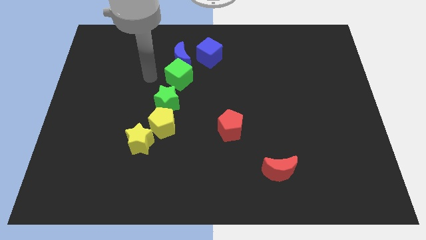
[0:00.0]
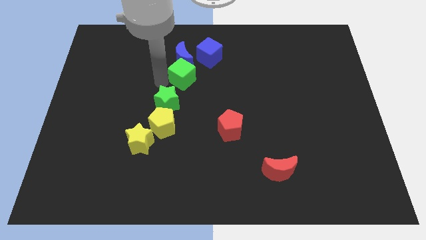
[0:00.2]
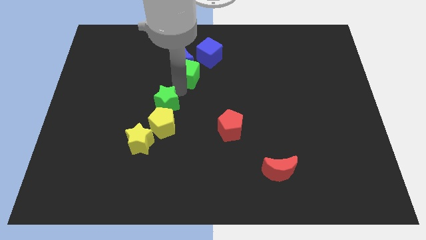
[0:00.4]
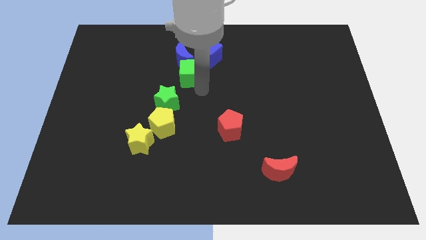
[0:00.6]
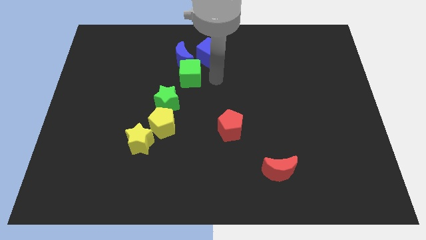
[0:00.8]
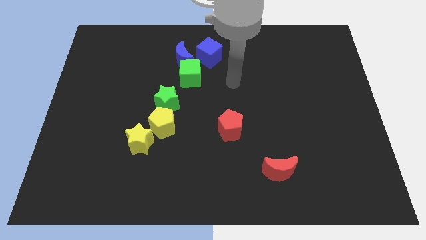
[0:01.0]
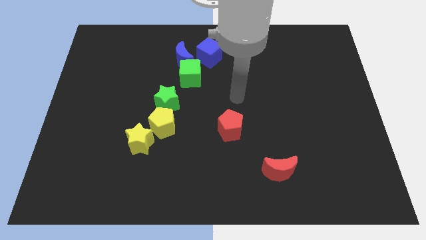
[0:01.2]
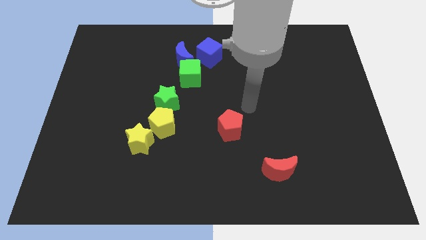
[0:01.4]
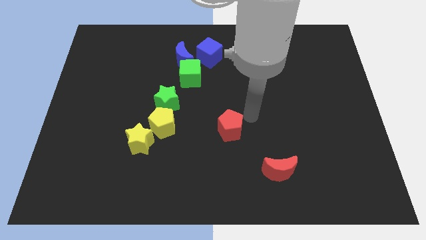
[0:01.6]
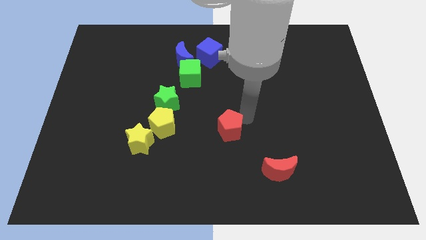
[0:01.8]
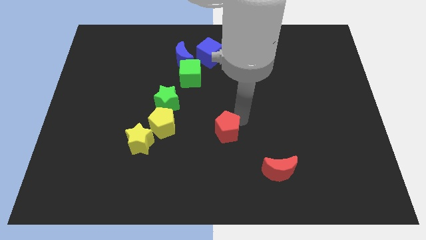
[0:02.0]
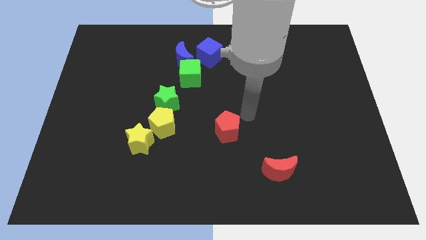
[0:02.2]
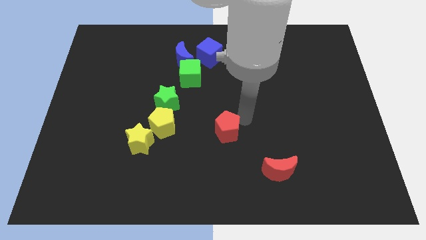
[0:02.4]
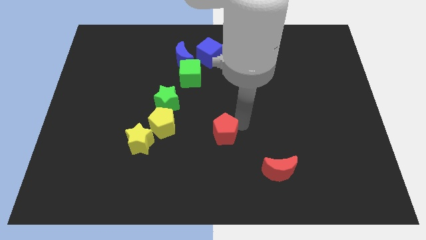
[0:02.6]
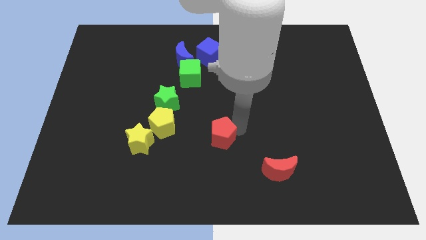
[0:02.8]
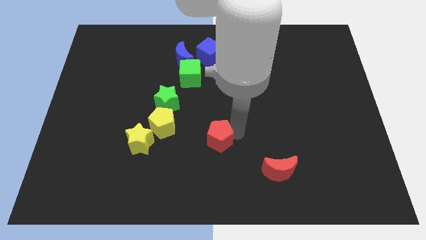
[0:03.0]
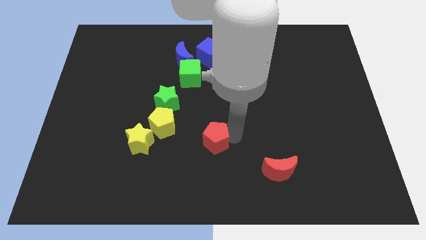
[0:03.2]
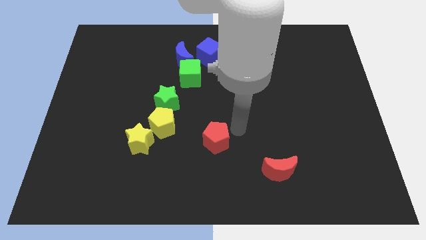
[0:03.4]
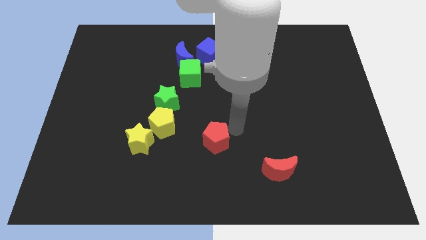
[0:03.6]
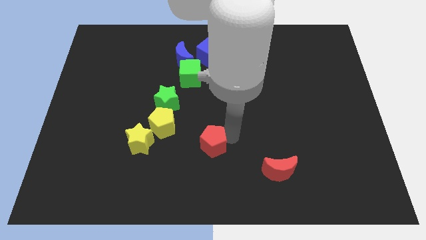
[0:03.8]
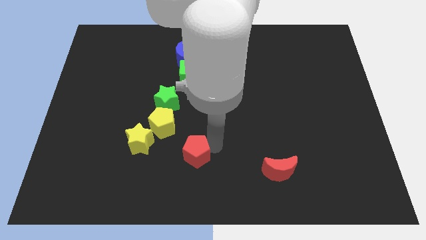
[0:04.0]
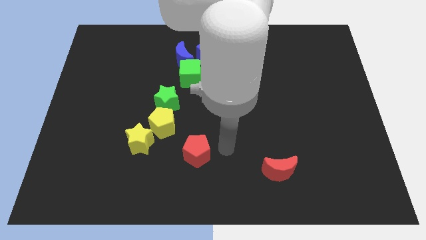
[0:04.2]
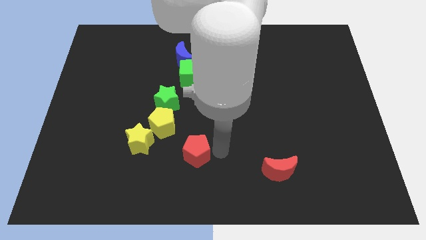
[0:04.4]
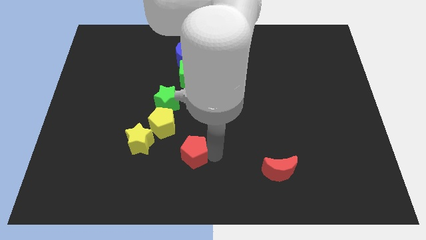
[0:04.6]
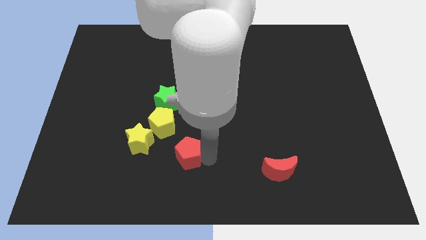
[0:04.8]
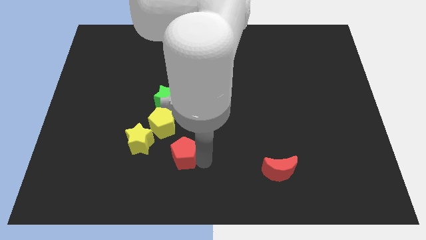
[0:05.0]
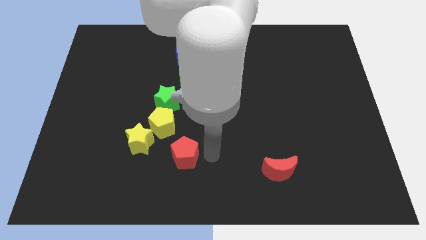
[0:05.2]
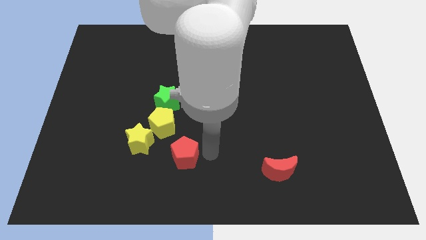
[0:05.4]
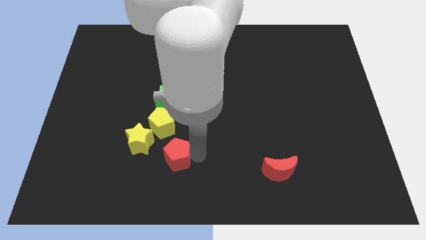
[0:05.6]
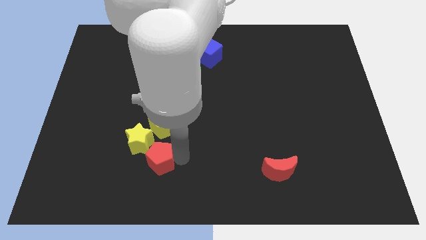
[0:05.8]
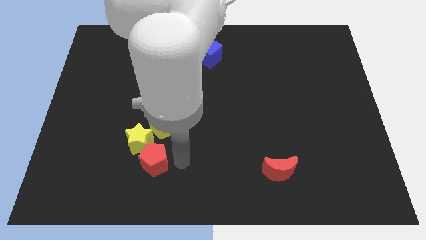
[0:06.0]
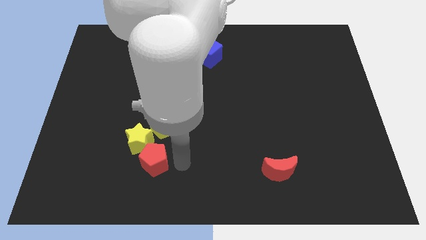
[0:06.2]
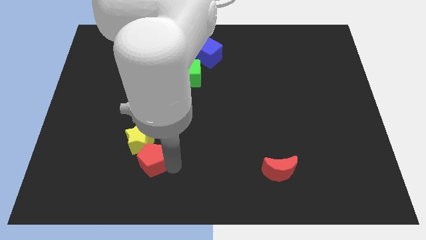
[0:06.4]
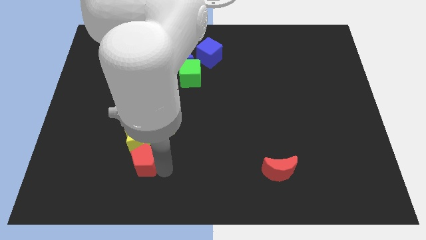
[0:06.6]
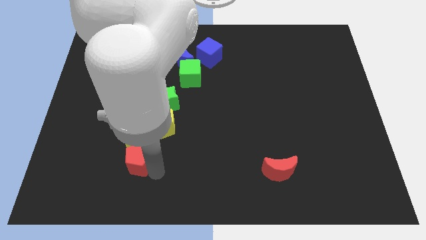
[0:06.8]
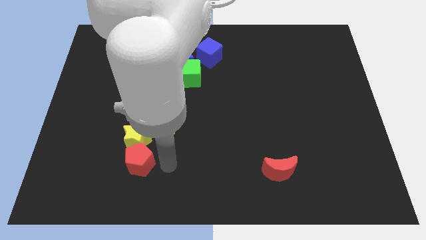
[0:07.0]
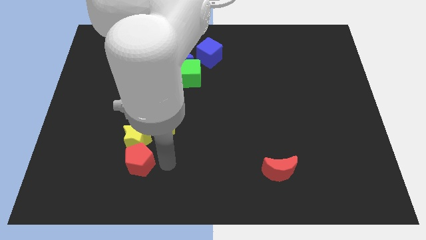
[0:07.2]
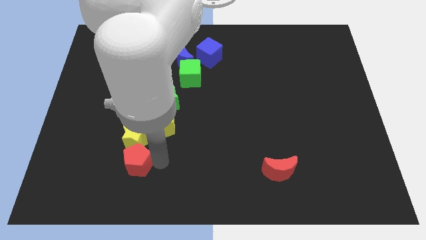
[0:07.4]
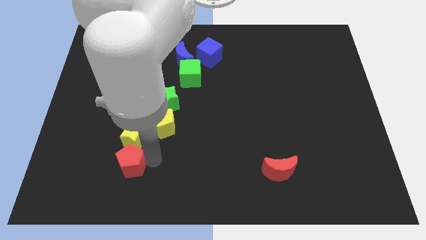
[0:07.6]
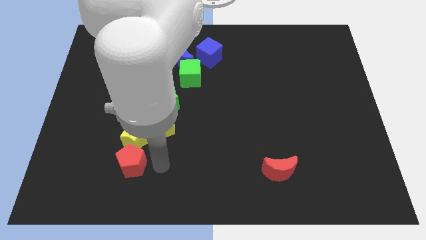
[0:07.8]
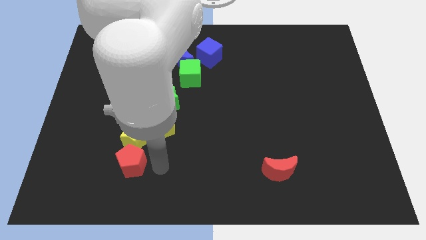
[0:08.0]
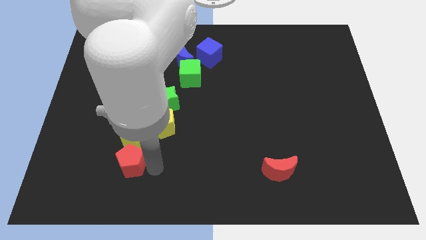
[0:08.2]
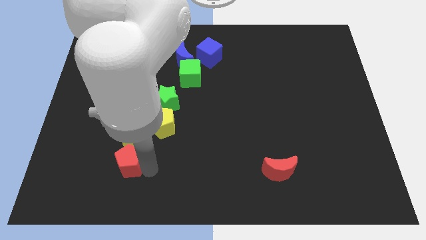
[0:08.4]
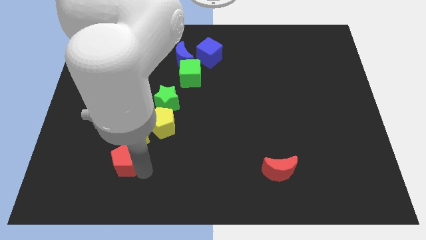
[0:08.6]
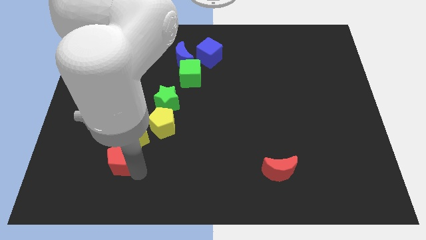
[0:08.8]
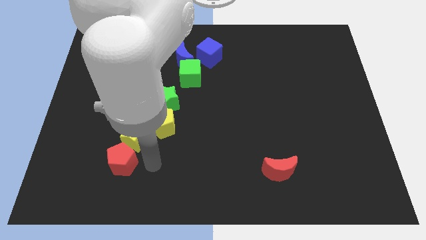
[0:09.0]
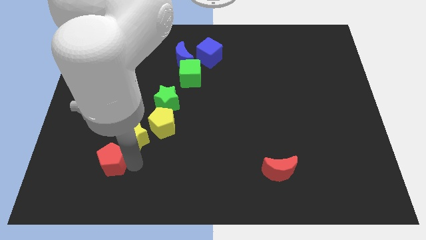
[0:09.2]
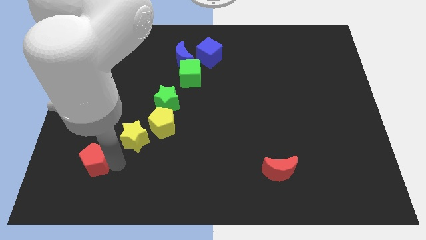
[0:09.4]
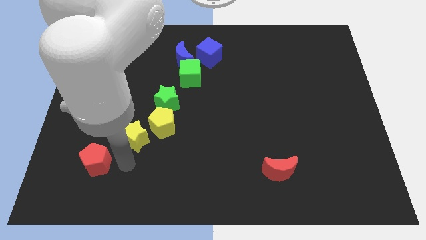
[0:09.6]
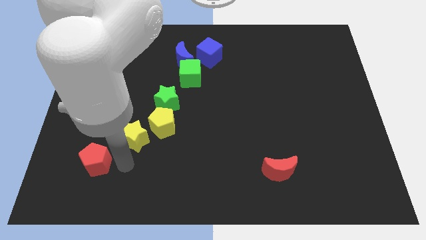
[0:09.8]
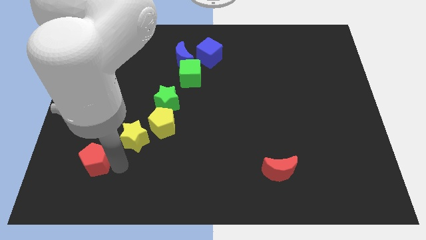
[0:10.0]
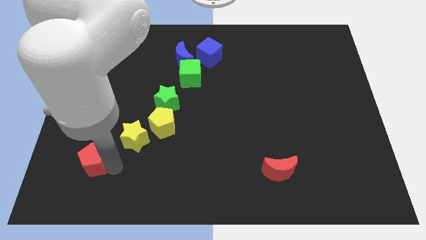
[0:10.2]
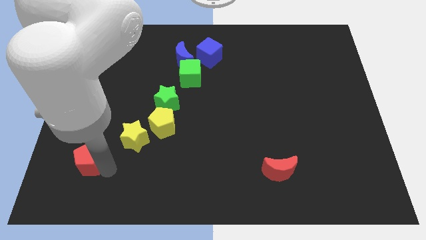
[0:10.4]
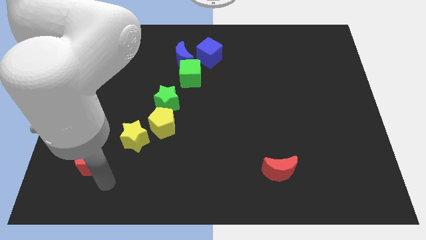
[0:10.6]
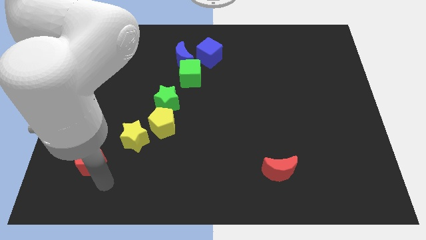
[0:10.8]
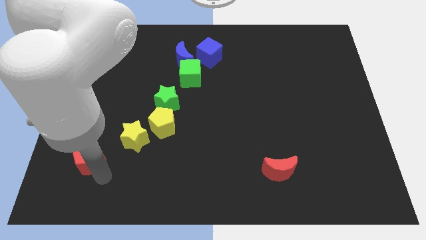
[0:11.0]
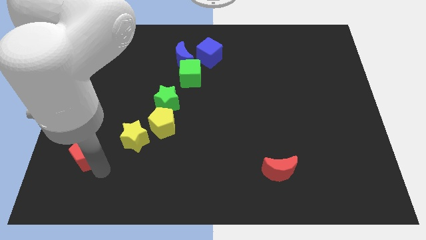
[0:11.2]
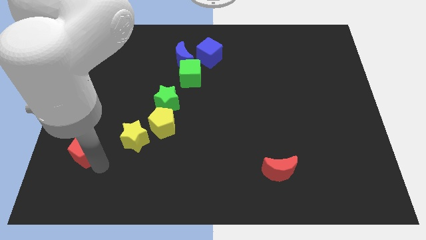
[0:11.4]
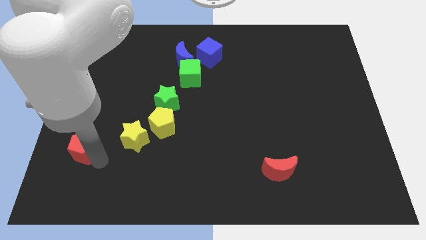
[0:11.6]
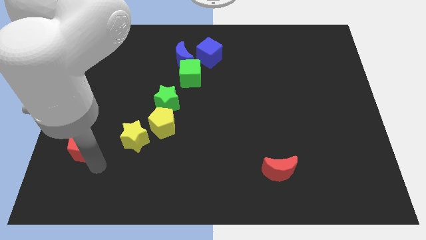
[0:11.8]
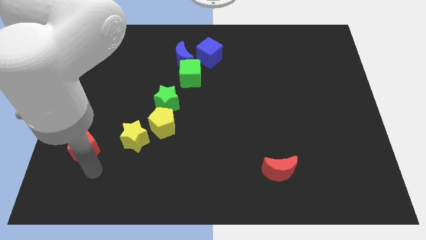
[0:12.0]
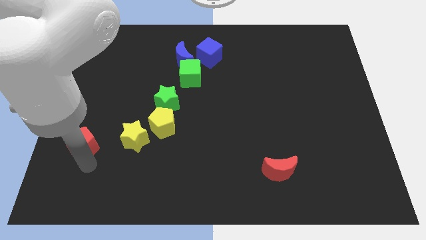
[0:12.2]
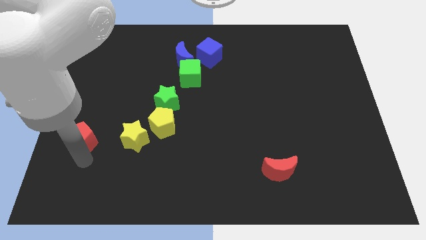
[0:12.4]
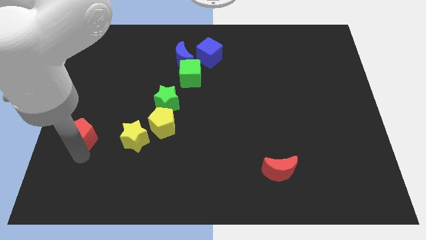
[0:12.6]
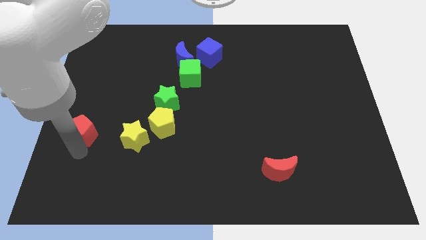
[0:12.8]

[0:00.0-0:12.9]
put the red pentagon to the left side of the board

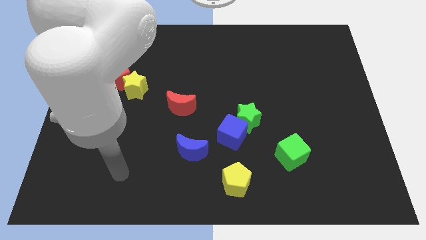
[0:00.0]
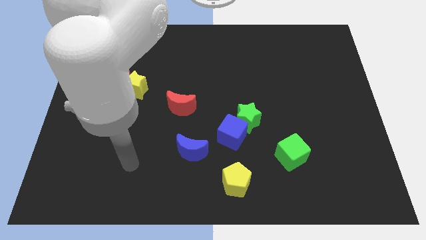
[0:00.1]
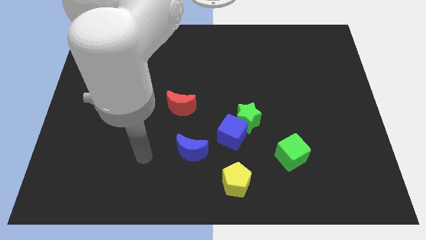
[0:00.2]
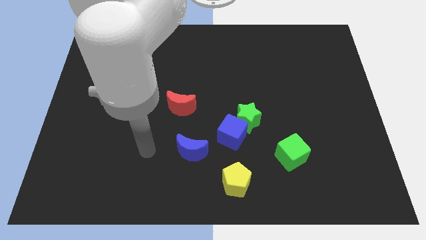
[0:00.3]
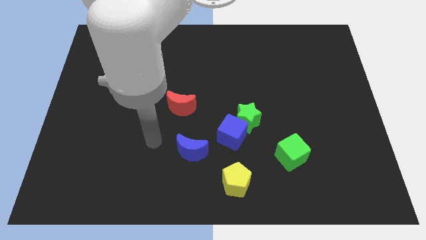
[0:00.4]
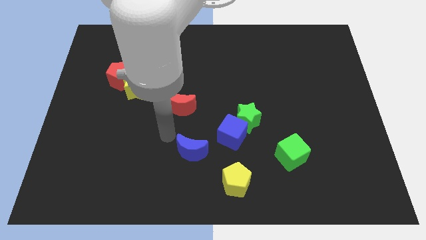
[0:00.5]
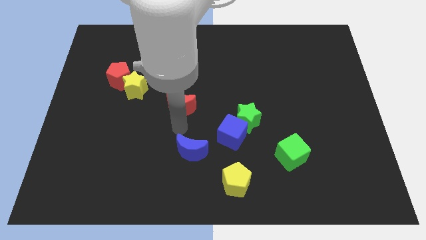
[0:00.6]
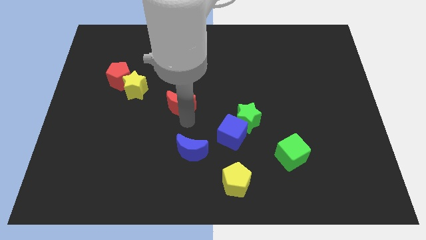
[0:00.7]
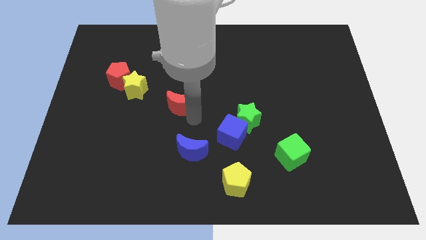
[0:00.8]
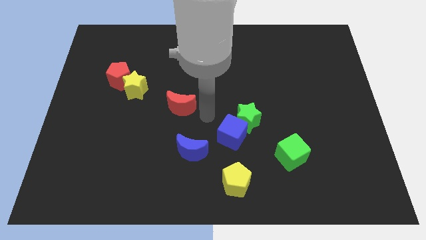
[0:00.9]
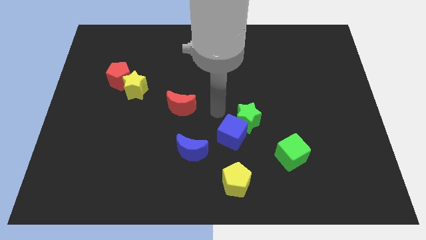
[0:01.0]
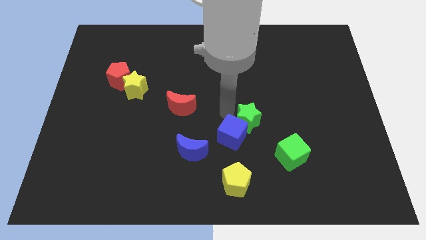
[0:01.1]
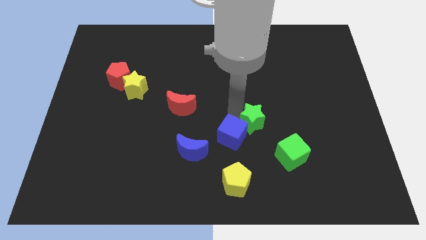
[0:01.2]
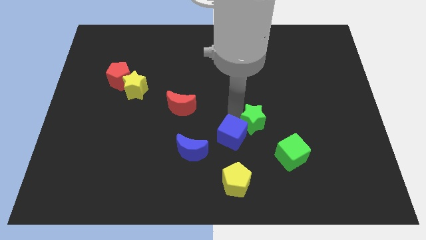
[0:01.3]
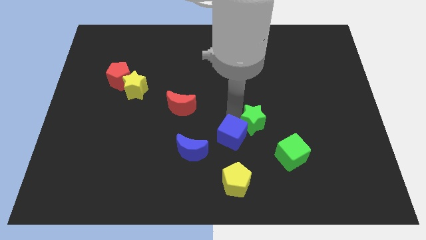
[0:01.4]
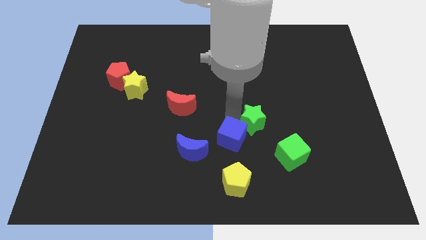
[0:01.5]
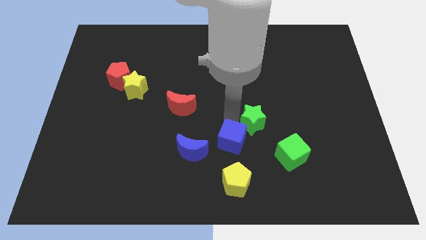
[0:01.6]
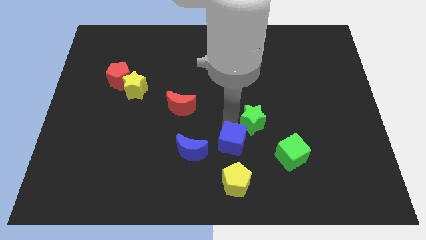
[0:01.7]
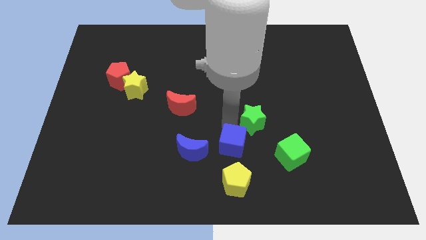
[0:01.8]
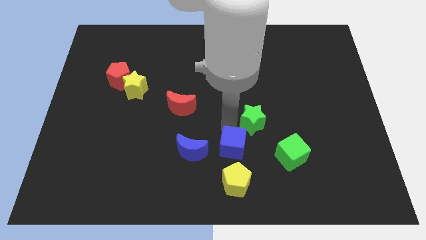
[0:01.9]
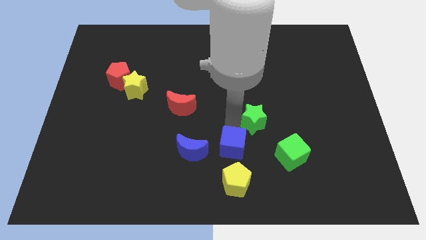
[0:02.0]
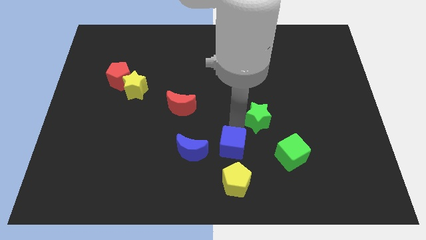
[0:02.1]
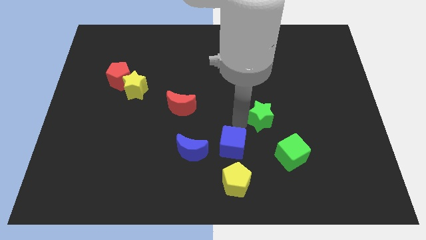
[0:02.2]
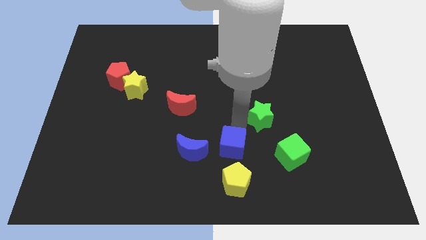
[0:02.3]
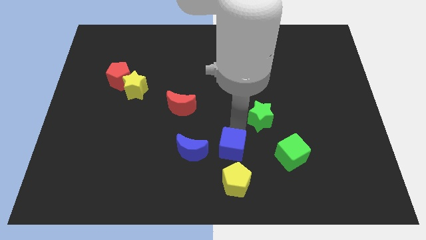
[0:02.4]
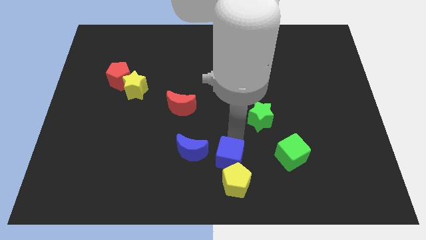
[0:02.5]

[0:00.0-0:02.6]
put the blue cube to the bottom side
